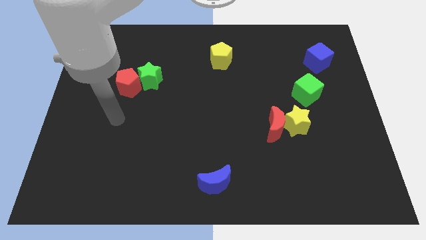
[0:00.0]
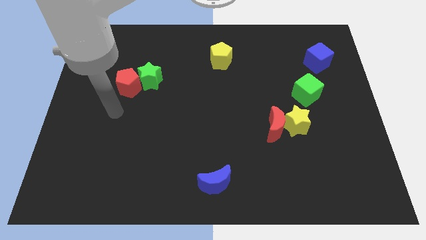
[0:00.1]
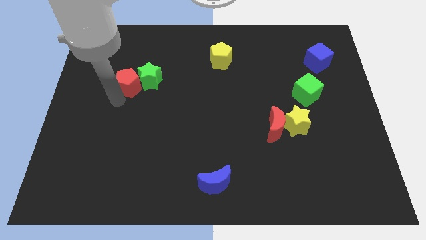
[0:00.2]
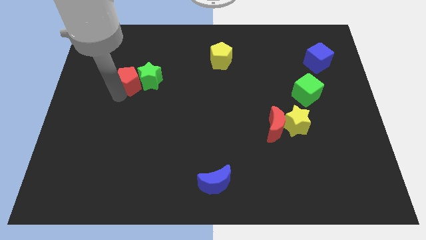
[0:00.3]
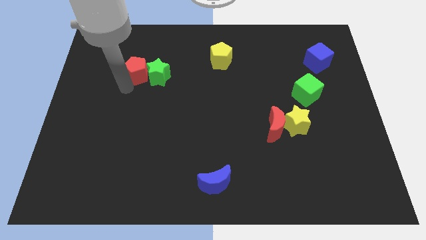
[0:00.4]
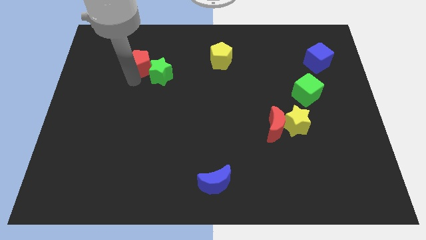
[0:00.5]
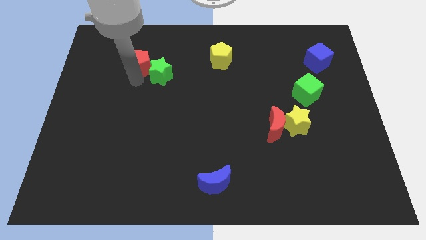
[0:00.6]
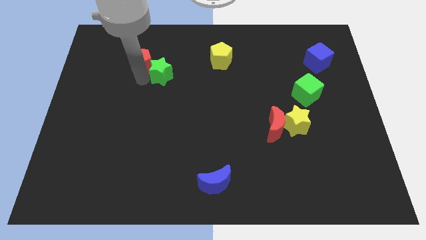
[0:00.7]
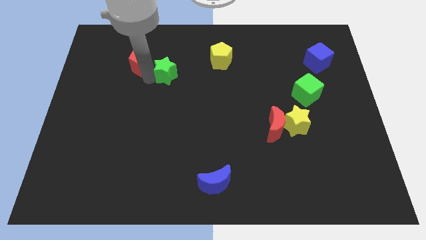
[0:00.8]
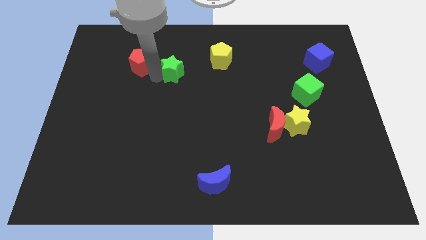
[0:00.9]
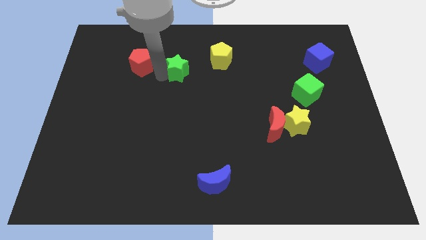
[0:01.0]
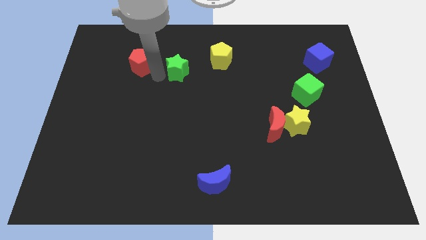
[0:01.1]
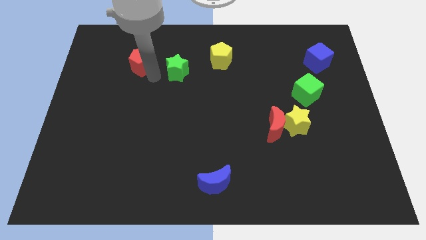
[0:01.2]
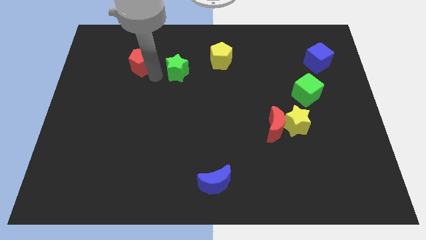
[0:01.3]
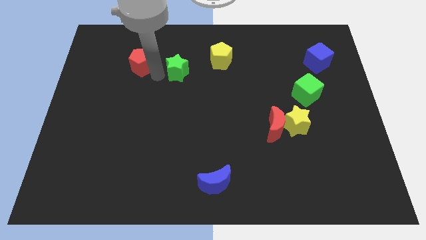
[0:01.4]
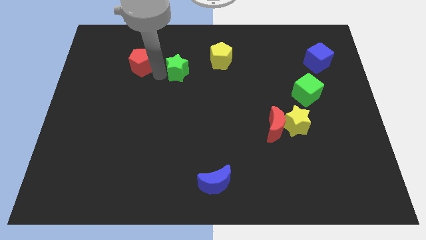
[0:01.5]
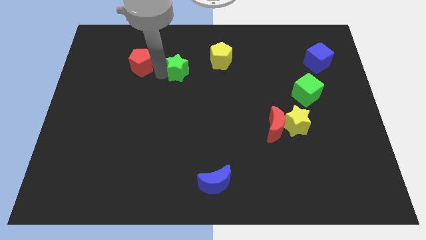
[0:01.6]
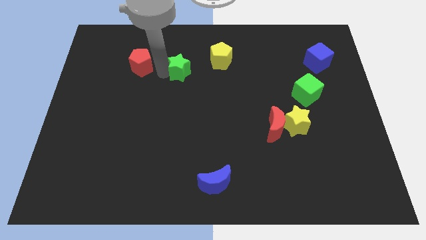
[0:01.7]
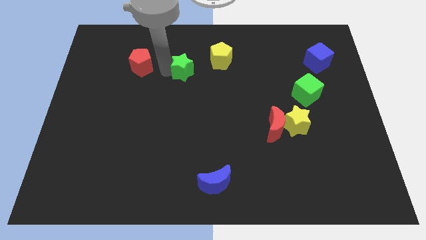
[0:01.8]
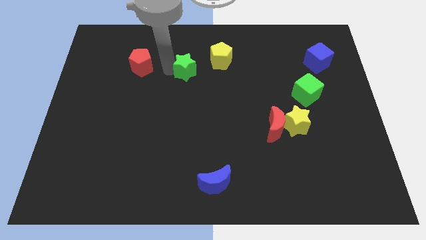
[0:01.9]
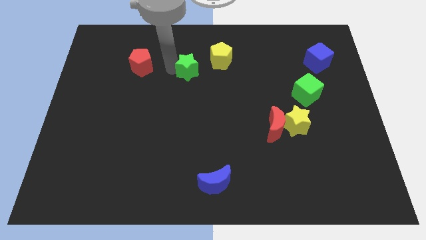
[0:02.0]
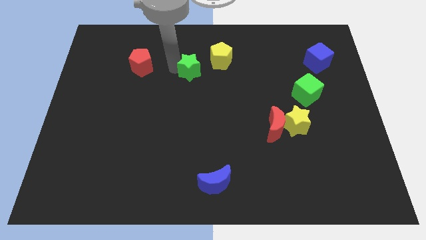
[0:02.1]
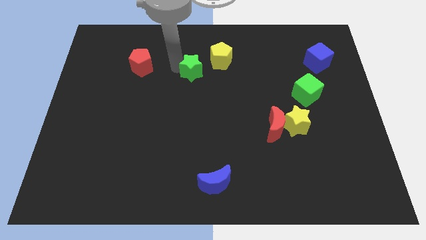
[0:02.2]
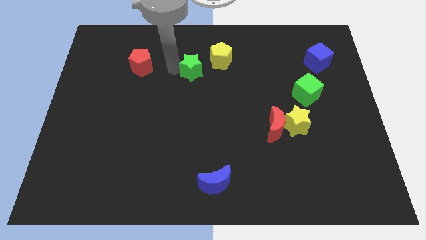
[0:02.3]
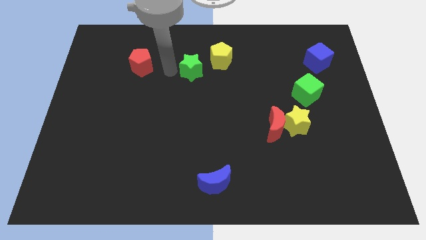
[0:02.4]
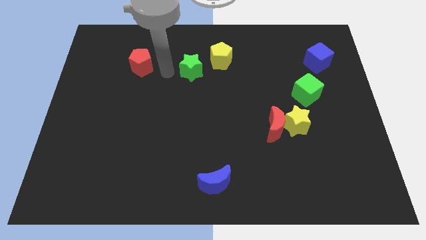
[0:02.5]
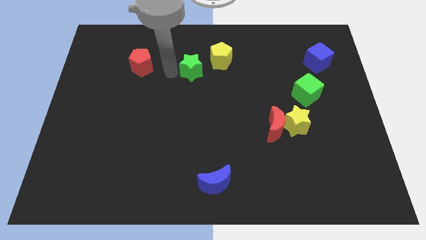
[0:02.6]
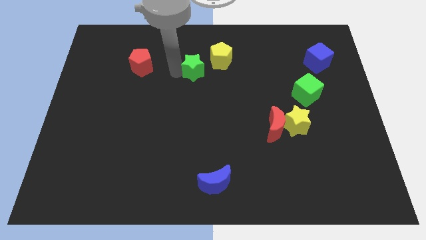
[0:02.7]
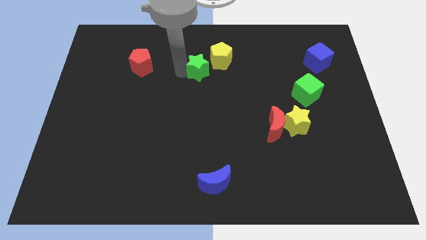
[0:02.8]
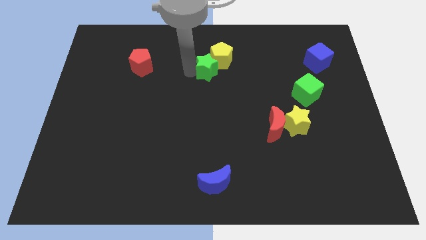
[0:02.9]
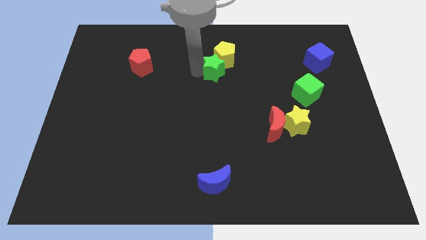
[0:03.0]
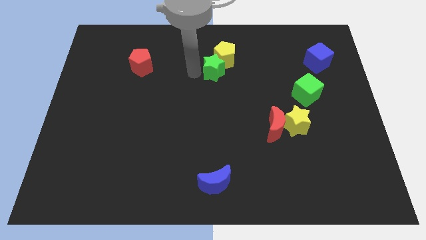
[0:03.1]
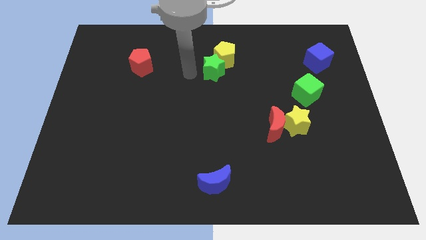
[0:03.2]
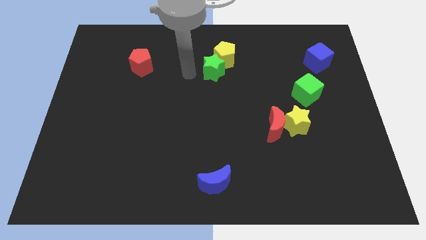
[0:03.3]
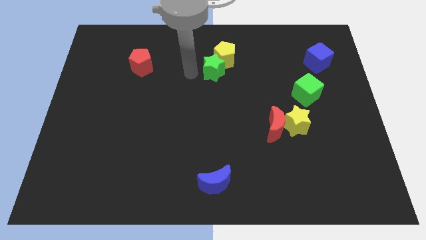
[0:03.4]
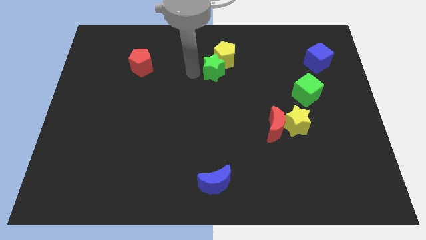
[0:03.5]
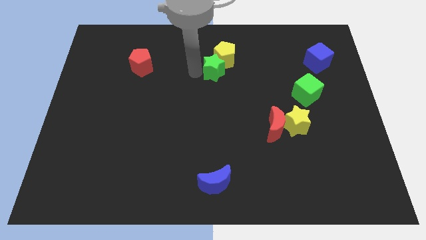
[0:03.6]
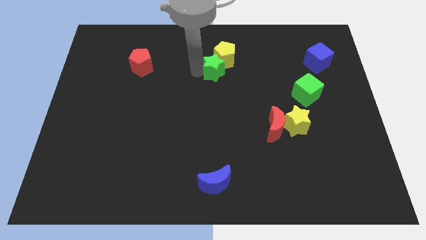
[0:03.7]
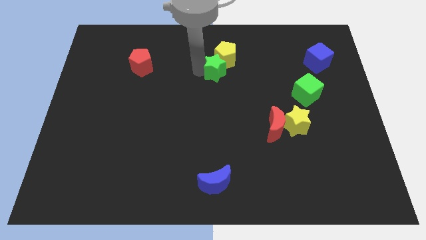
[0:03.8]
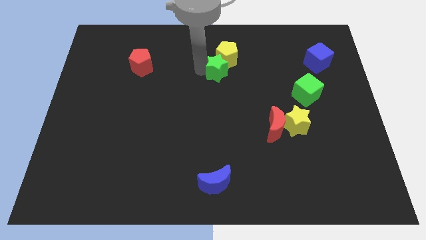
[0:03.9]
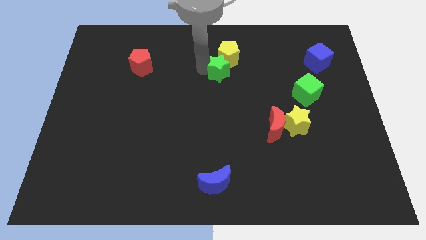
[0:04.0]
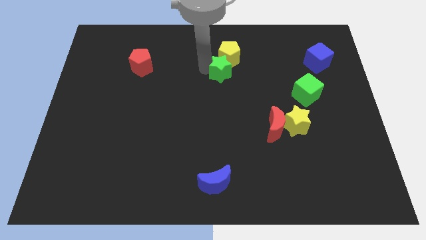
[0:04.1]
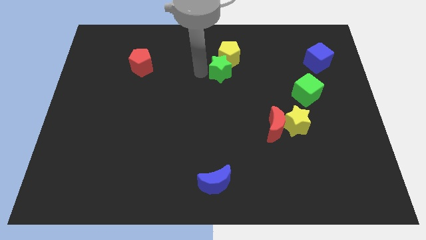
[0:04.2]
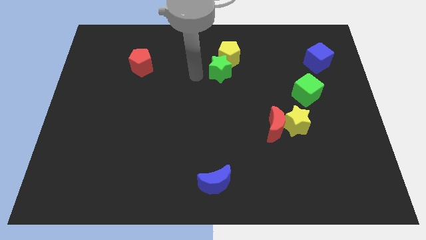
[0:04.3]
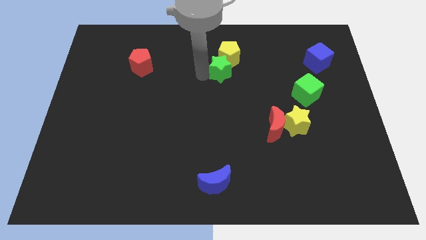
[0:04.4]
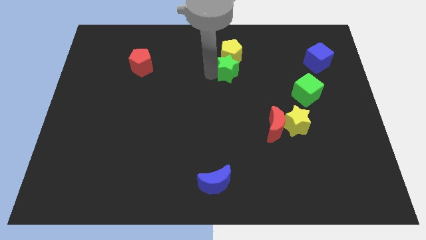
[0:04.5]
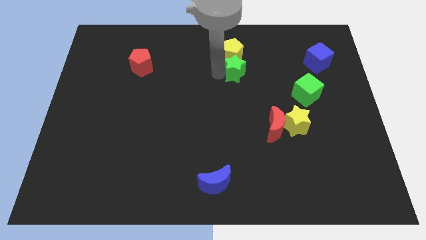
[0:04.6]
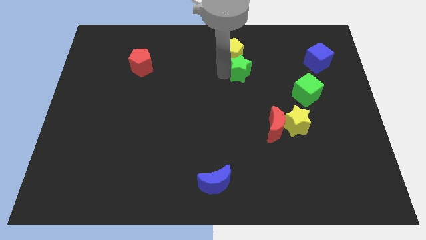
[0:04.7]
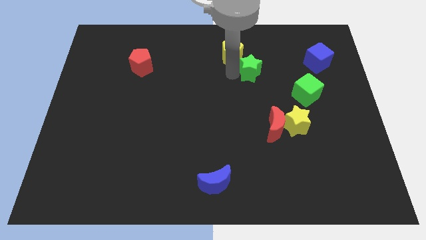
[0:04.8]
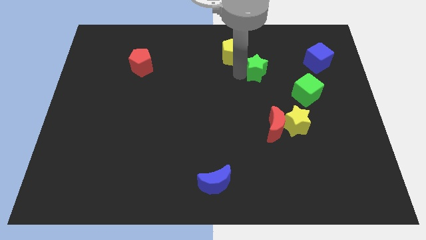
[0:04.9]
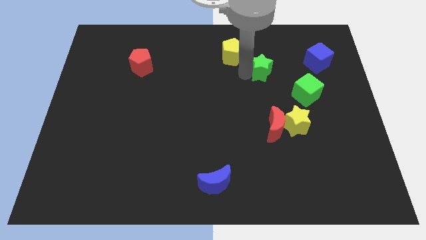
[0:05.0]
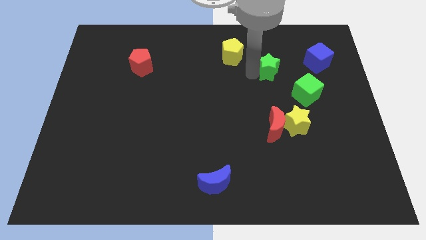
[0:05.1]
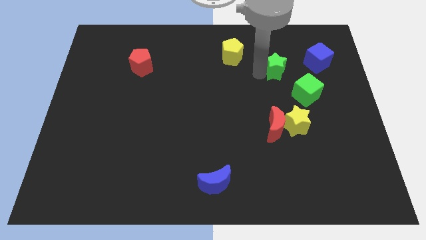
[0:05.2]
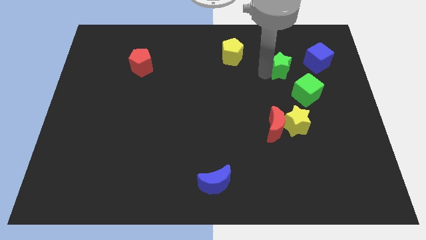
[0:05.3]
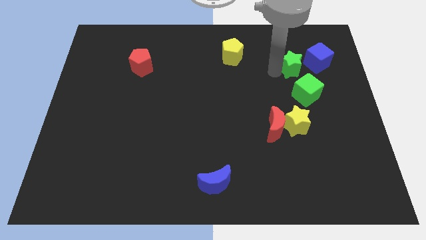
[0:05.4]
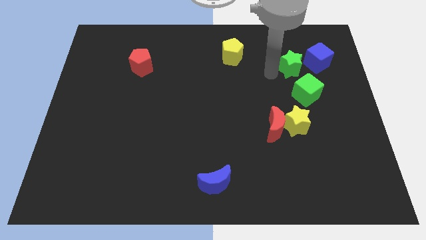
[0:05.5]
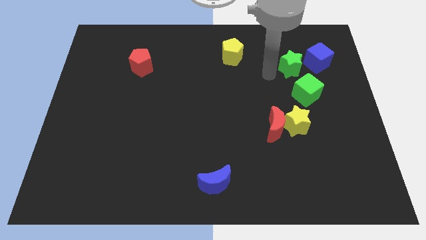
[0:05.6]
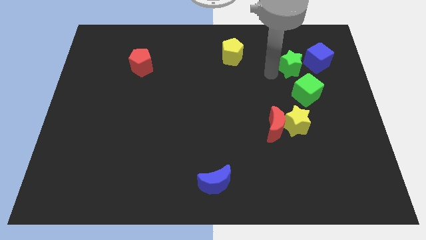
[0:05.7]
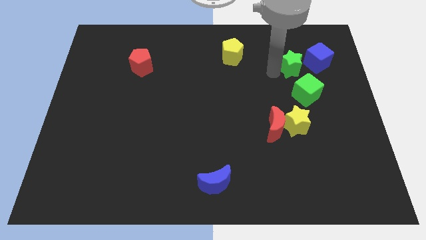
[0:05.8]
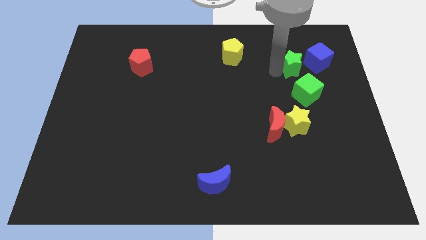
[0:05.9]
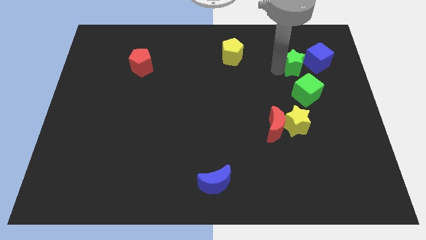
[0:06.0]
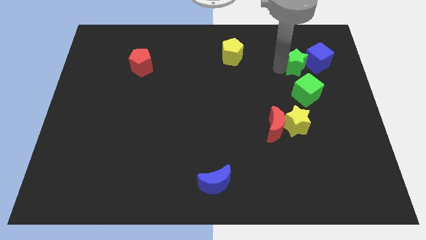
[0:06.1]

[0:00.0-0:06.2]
move the green star close to the blue cube
